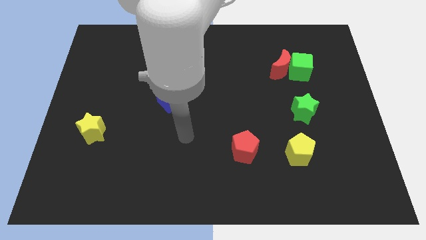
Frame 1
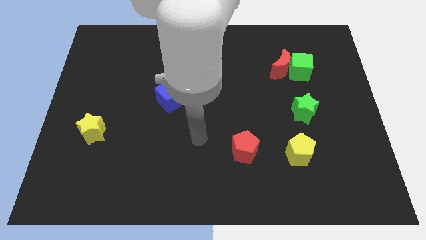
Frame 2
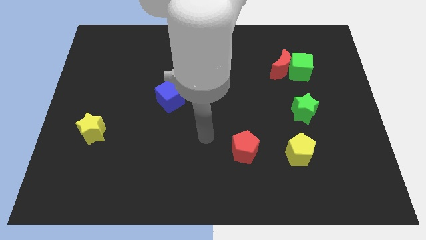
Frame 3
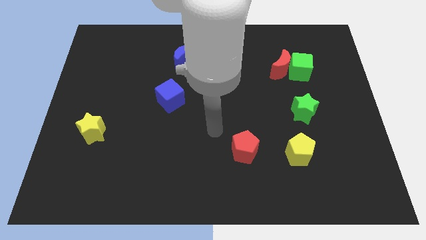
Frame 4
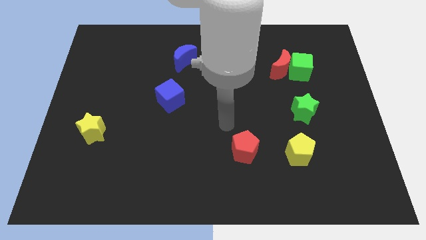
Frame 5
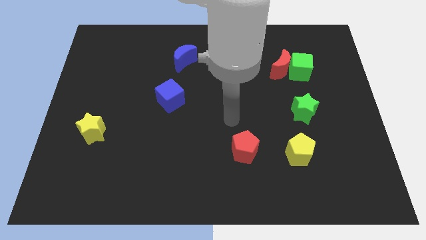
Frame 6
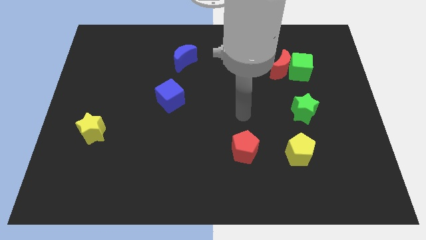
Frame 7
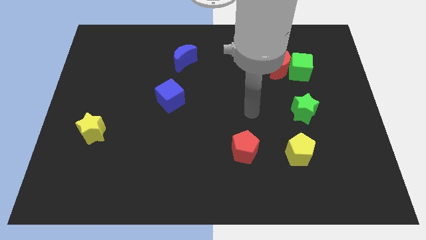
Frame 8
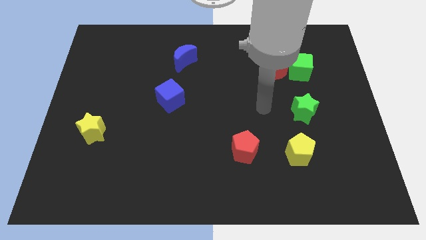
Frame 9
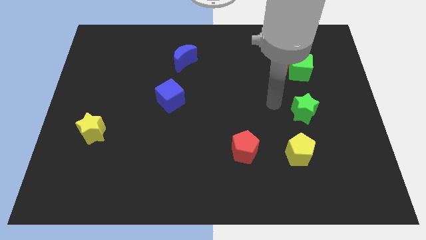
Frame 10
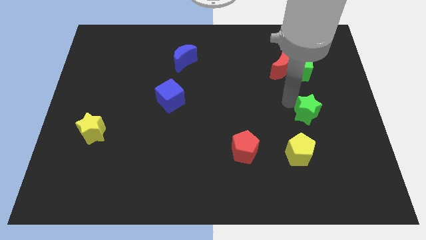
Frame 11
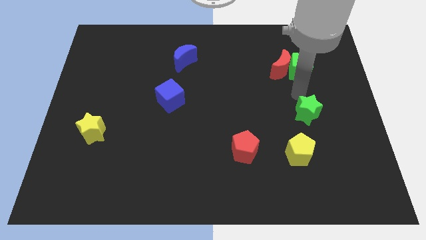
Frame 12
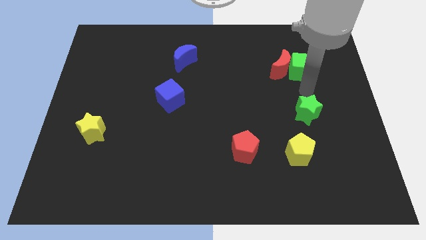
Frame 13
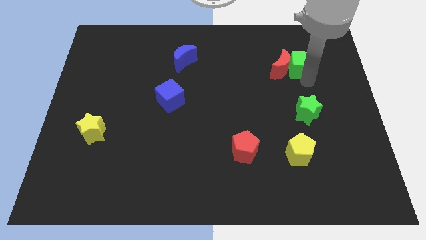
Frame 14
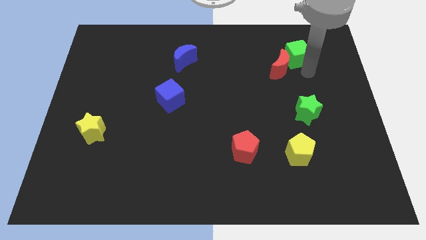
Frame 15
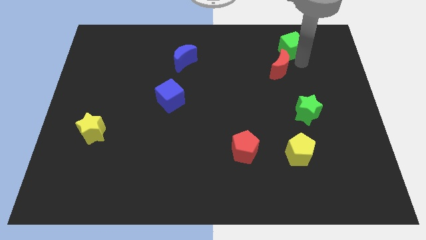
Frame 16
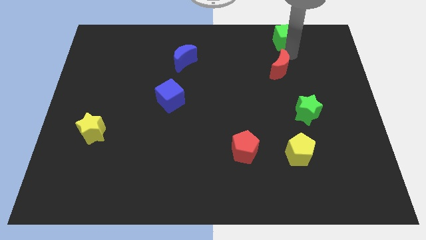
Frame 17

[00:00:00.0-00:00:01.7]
separate the red moon from the green cube

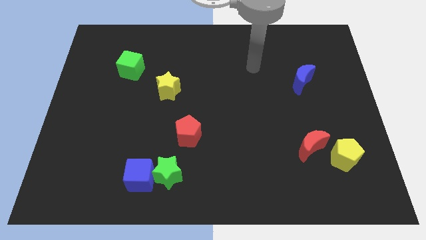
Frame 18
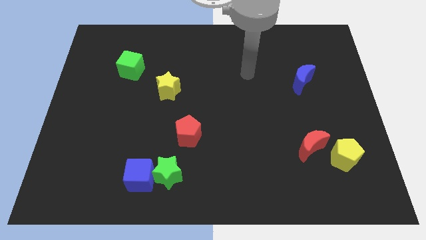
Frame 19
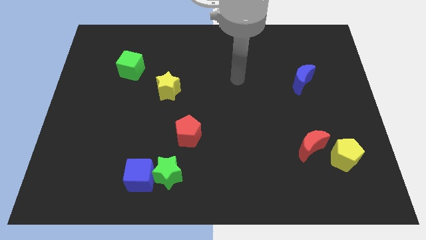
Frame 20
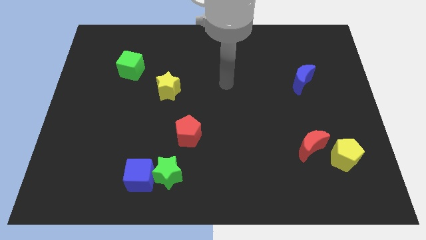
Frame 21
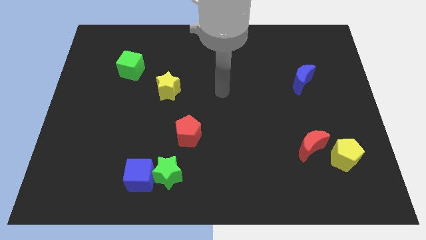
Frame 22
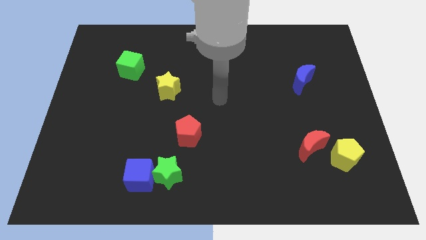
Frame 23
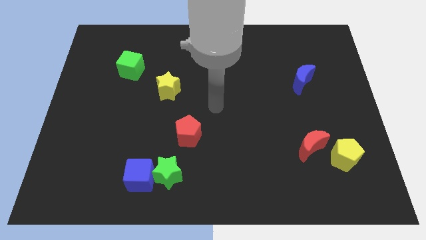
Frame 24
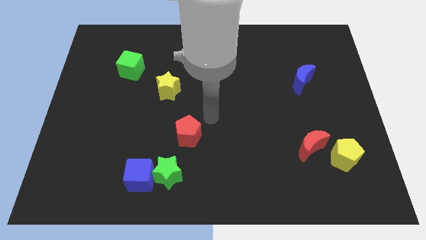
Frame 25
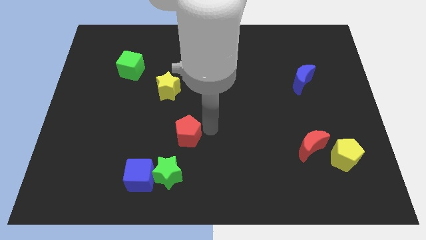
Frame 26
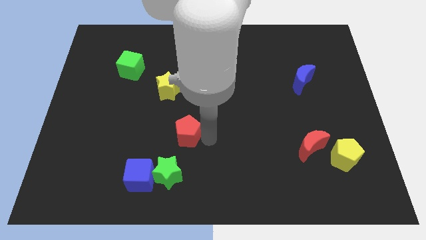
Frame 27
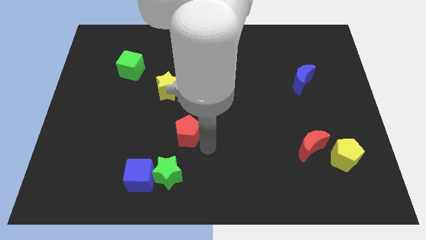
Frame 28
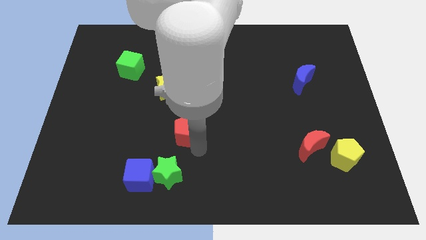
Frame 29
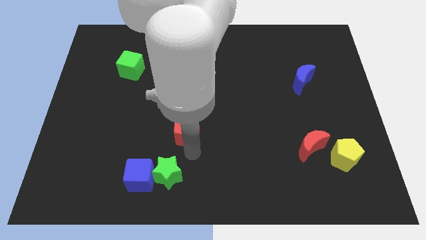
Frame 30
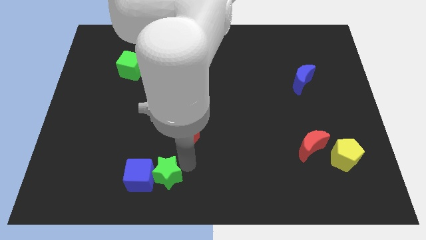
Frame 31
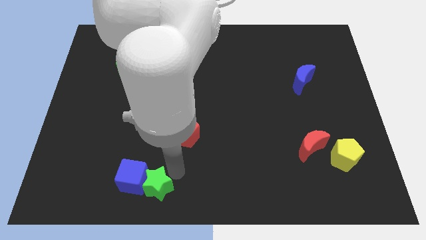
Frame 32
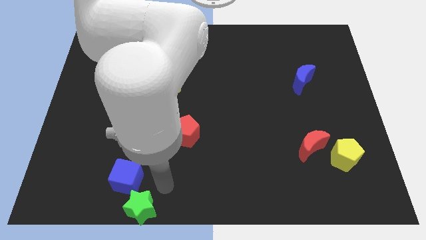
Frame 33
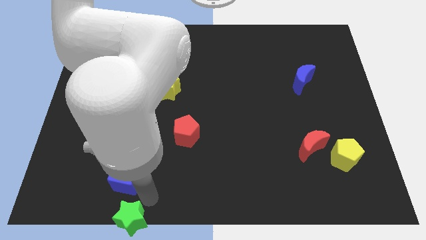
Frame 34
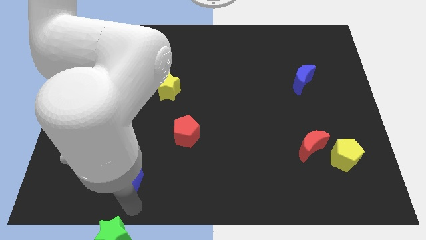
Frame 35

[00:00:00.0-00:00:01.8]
pull the blue cube apart from the green star

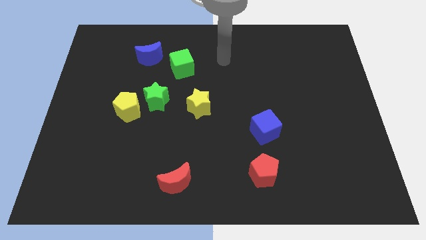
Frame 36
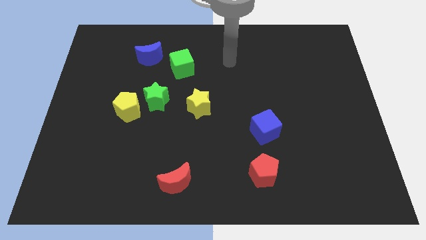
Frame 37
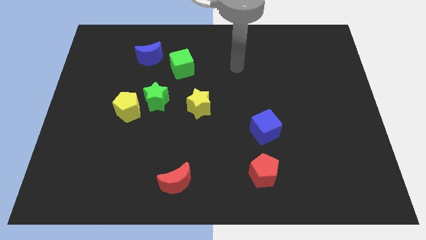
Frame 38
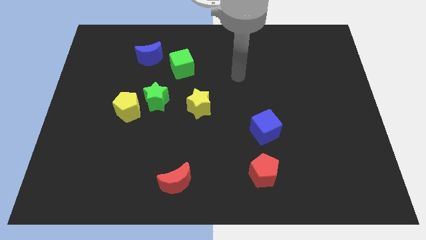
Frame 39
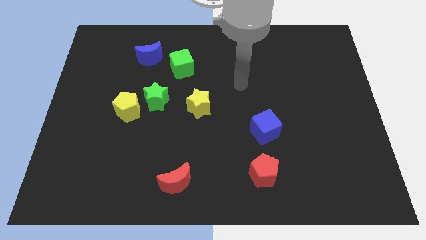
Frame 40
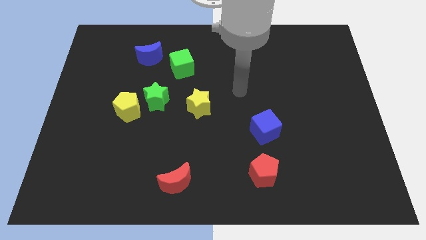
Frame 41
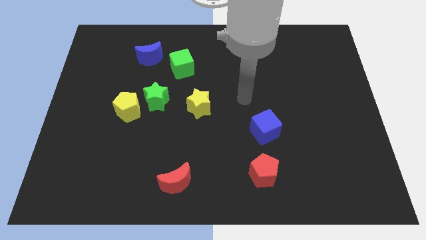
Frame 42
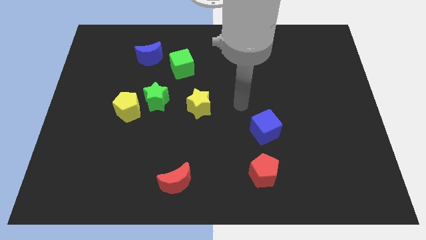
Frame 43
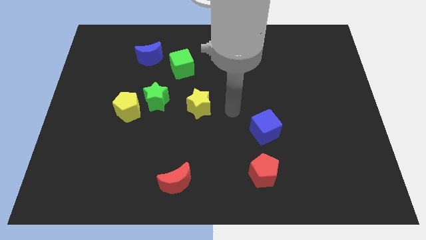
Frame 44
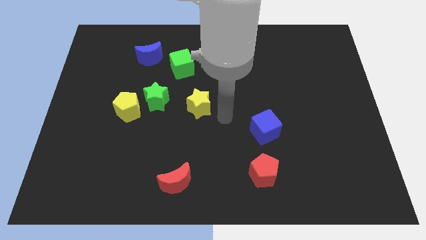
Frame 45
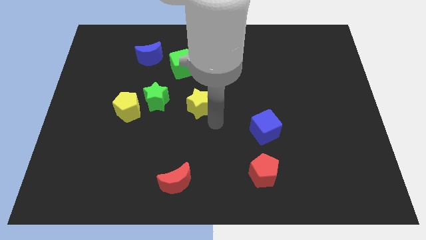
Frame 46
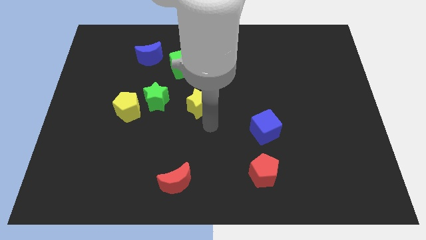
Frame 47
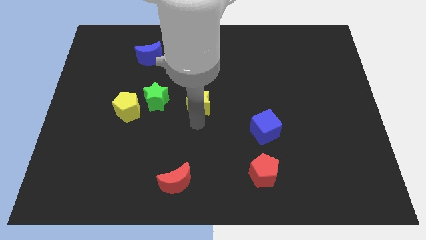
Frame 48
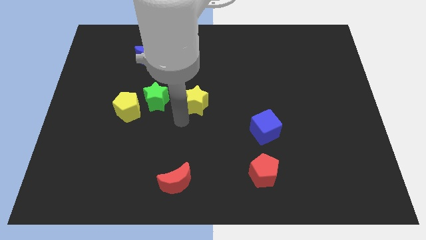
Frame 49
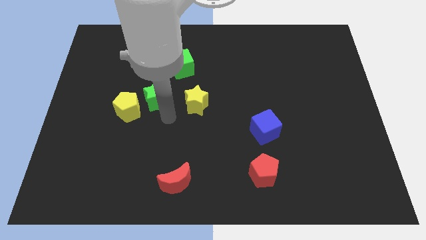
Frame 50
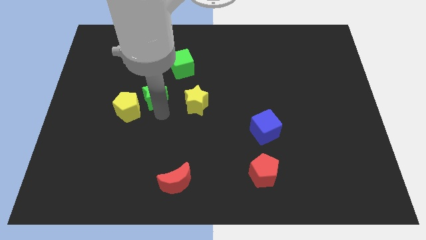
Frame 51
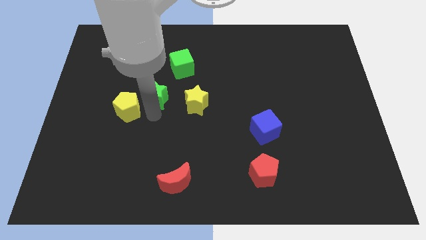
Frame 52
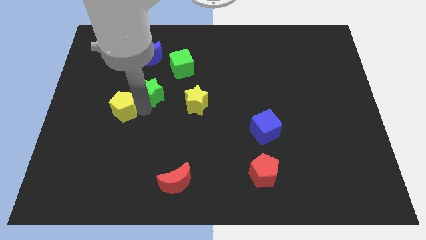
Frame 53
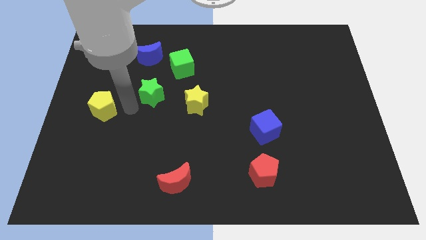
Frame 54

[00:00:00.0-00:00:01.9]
move the green star away from the yellow pentagon

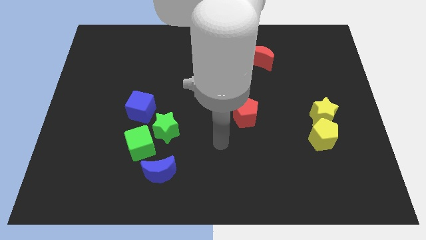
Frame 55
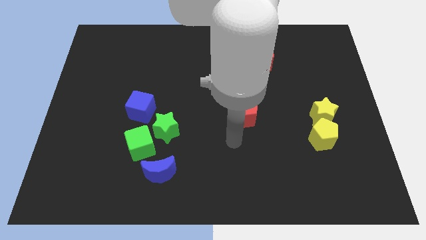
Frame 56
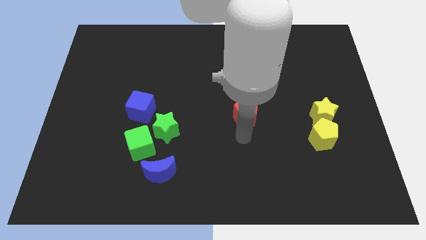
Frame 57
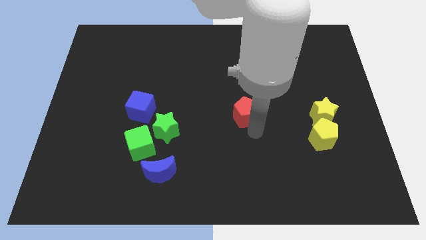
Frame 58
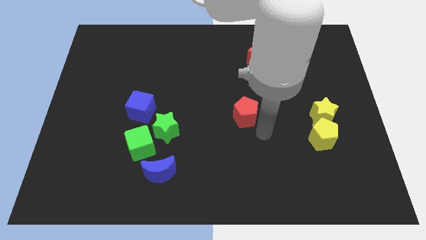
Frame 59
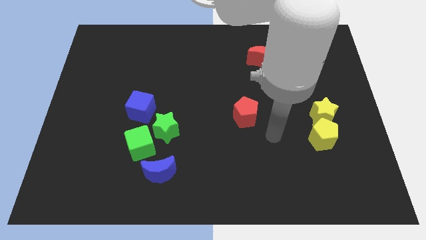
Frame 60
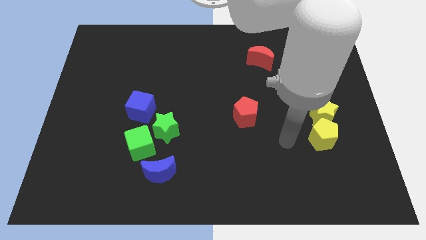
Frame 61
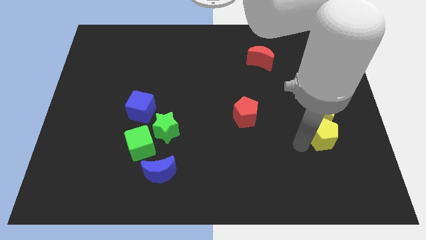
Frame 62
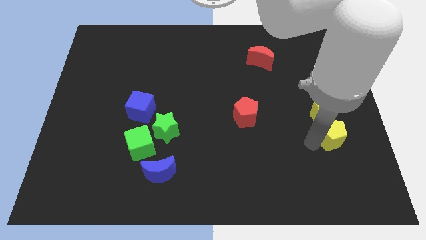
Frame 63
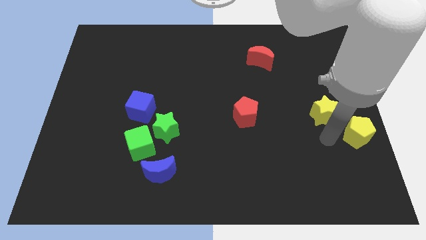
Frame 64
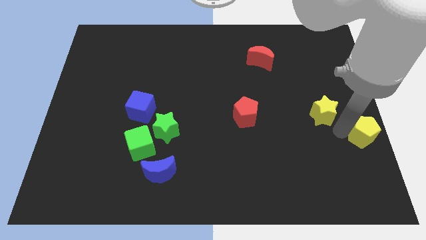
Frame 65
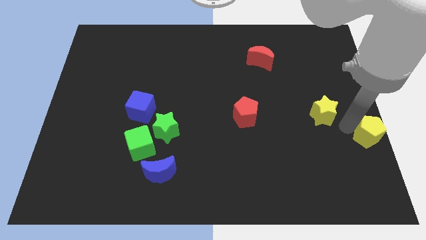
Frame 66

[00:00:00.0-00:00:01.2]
pull the yellow star apart from the yellow pentagon

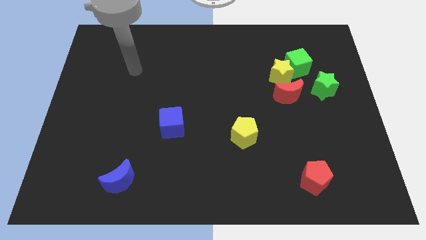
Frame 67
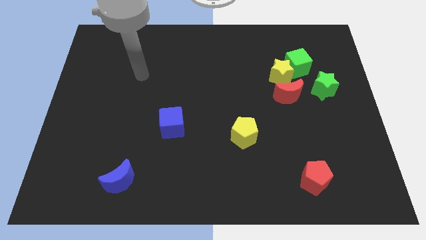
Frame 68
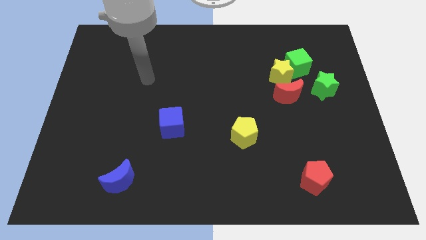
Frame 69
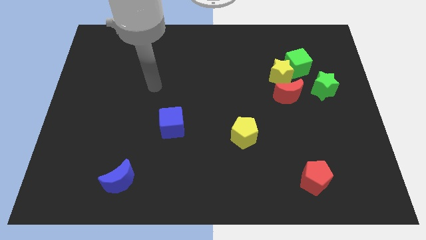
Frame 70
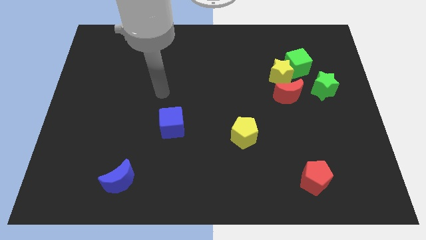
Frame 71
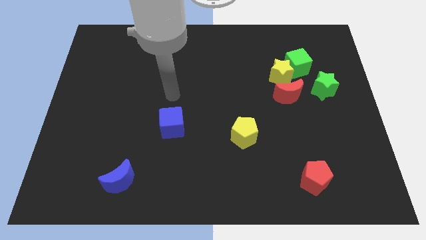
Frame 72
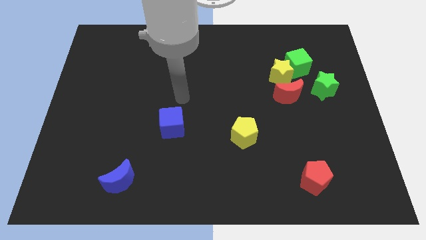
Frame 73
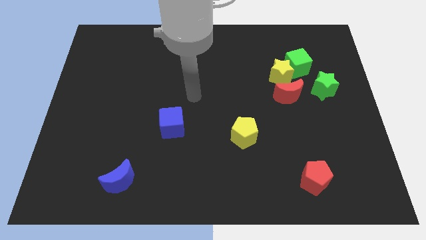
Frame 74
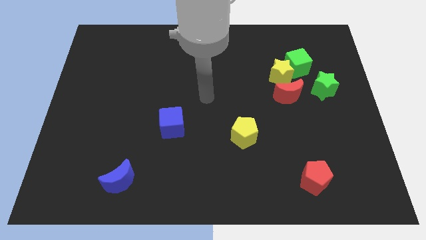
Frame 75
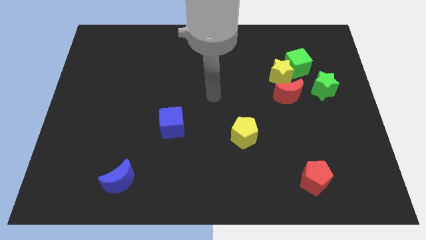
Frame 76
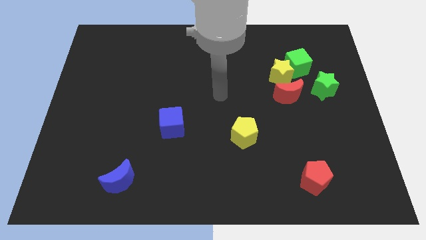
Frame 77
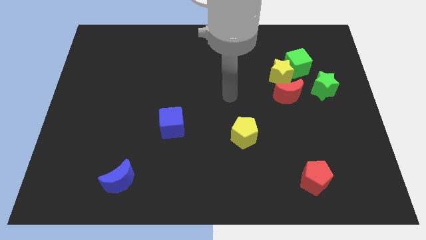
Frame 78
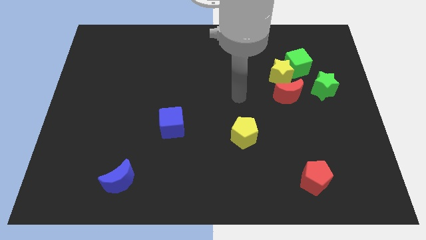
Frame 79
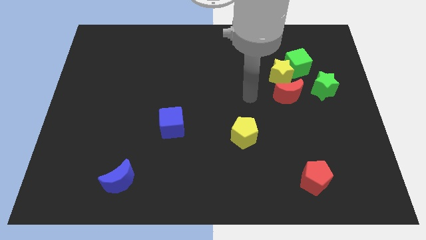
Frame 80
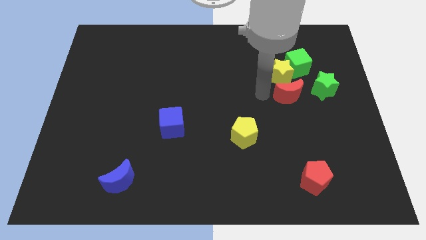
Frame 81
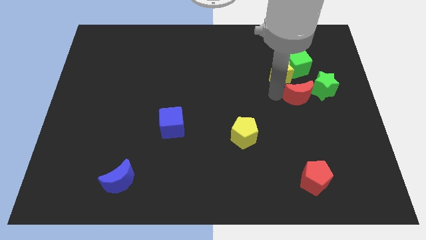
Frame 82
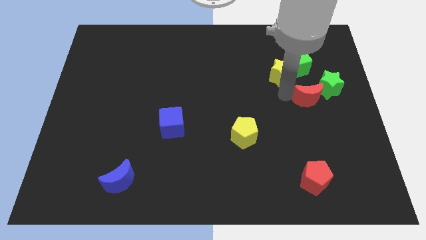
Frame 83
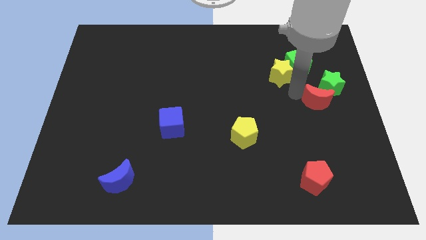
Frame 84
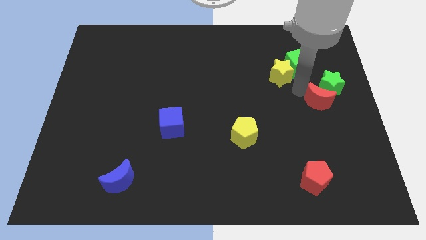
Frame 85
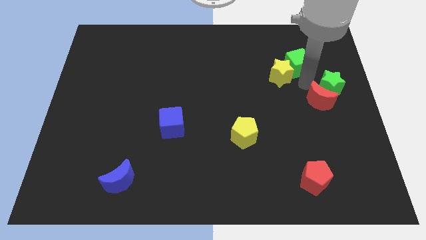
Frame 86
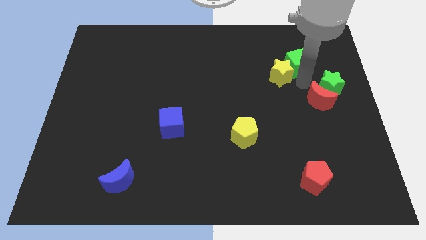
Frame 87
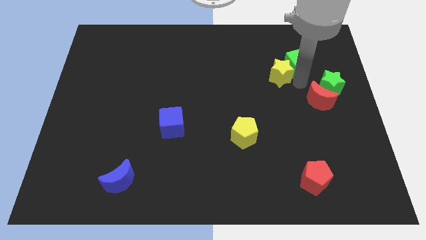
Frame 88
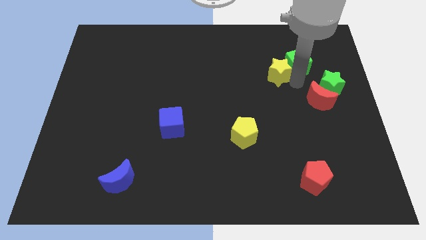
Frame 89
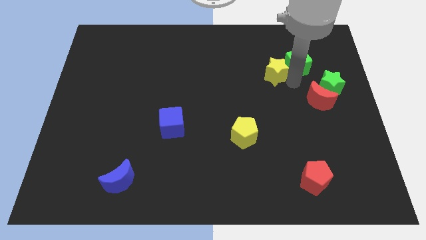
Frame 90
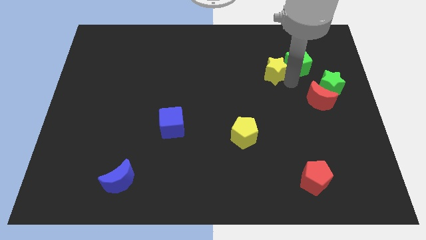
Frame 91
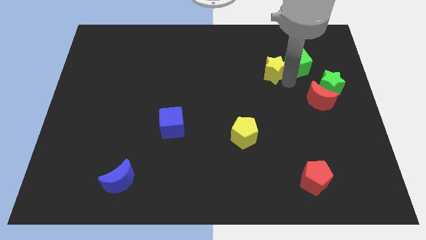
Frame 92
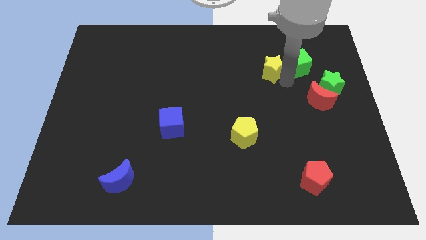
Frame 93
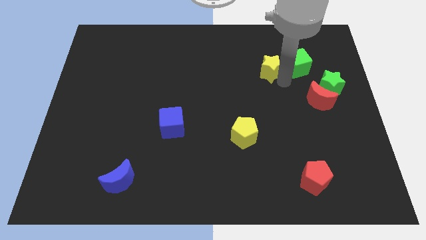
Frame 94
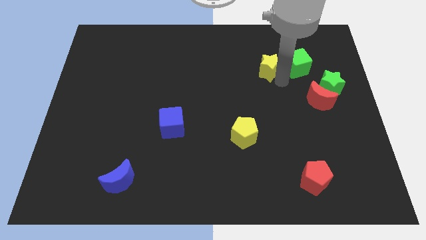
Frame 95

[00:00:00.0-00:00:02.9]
pull the yellow star apart from the green cube and red moon
